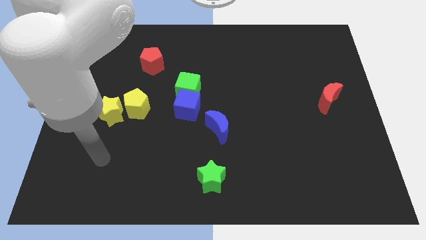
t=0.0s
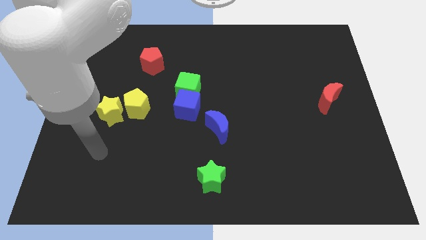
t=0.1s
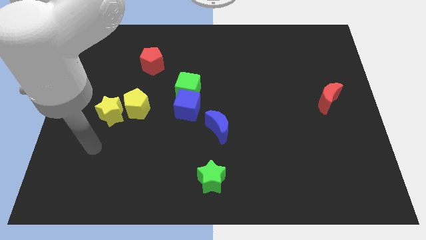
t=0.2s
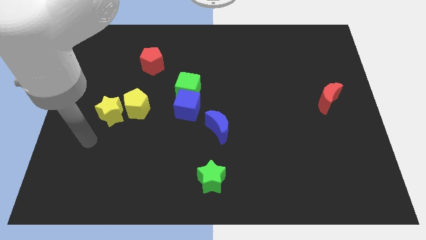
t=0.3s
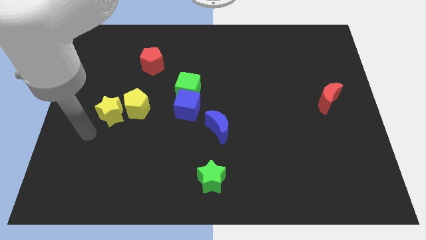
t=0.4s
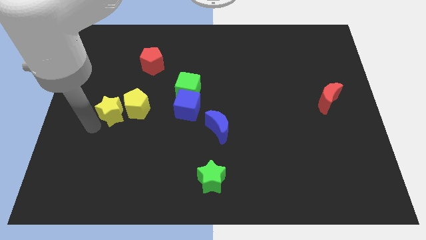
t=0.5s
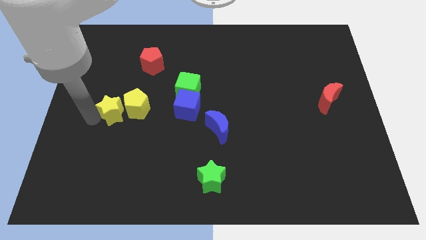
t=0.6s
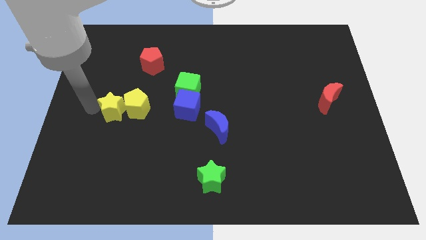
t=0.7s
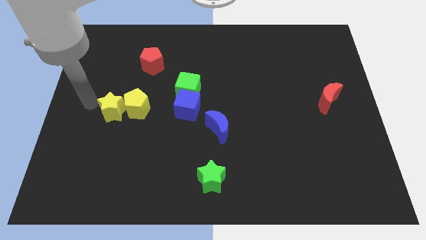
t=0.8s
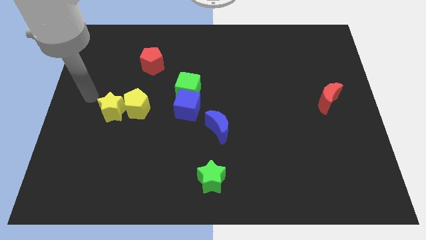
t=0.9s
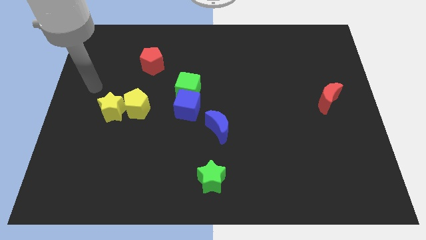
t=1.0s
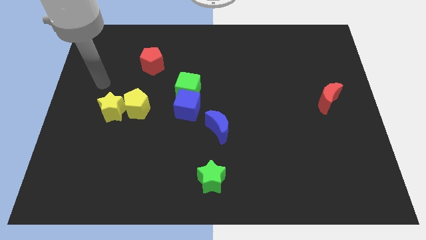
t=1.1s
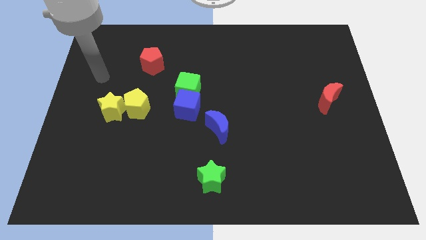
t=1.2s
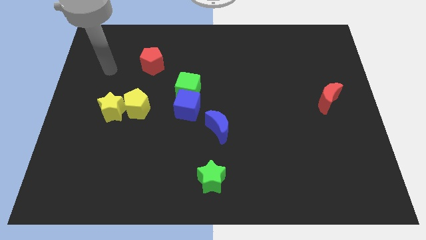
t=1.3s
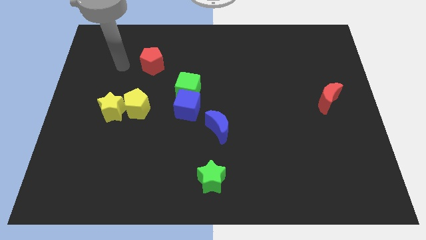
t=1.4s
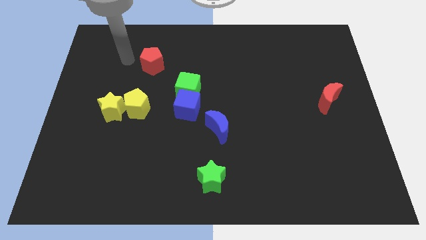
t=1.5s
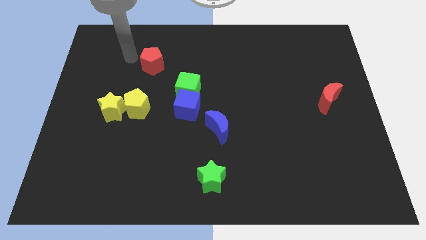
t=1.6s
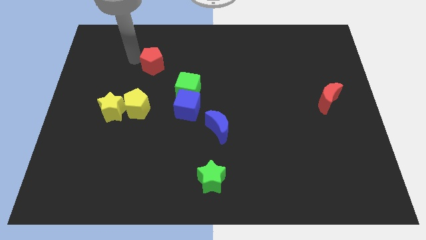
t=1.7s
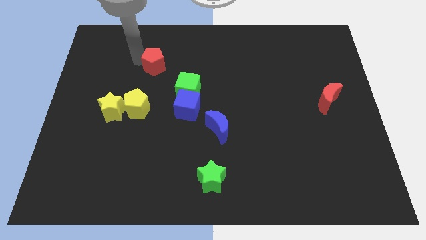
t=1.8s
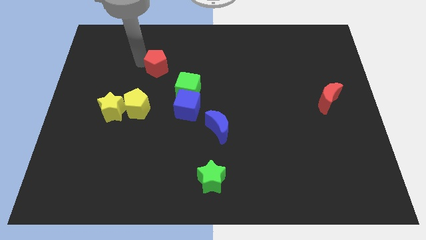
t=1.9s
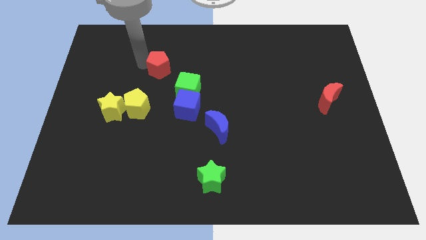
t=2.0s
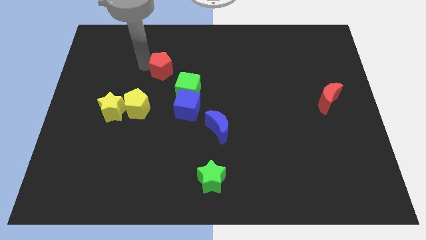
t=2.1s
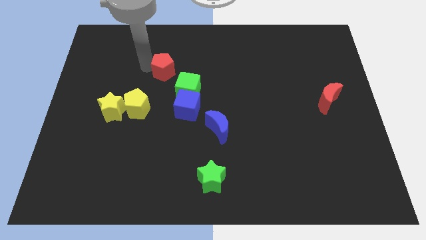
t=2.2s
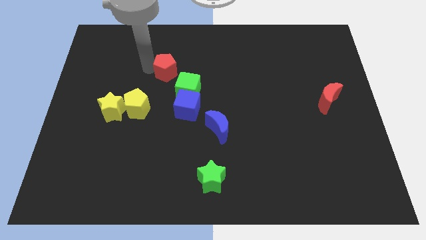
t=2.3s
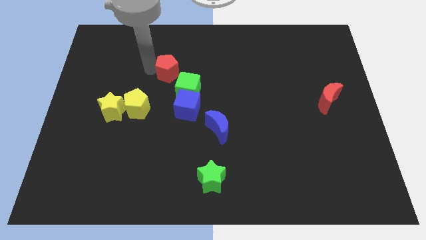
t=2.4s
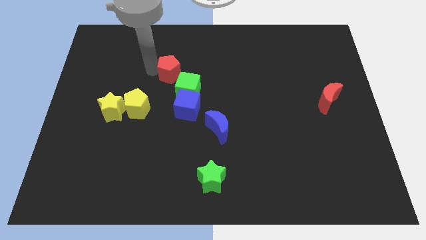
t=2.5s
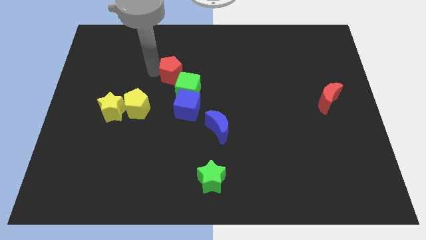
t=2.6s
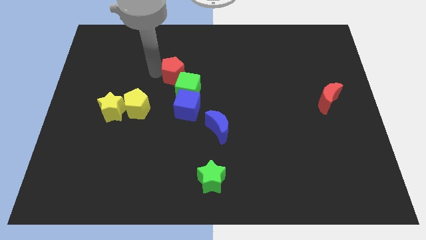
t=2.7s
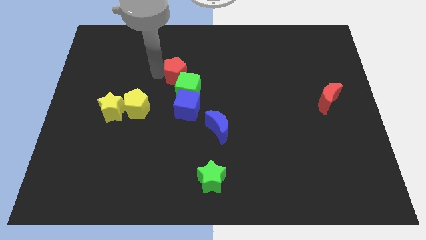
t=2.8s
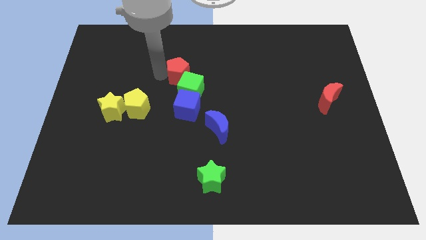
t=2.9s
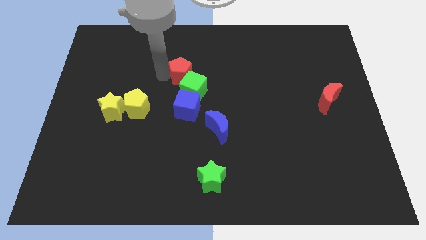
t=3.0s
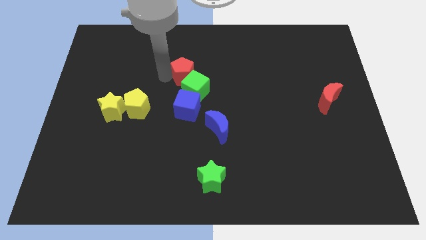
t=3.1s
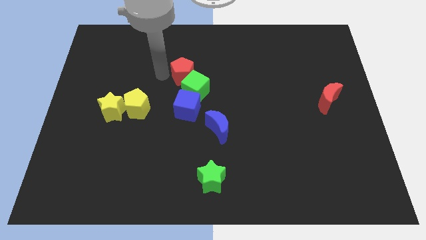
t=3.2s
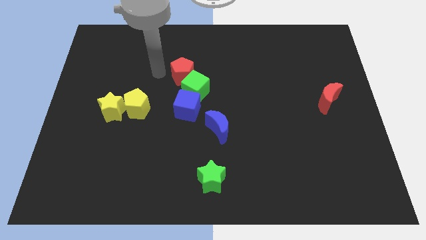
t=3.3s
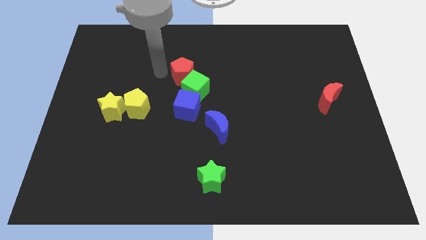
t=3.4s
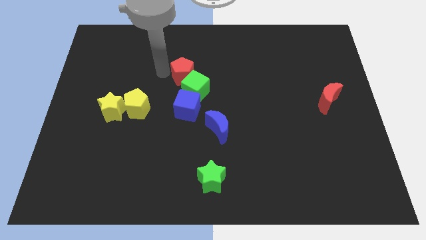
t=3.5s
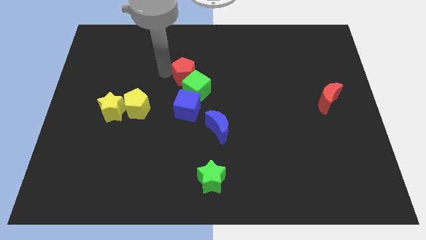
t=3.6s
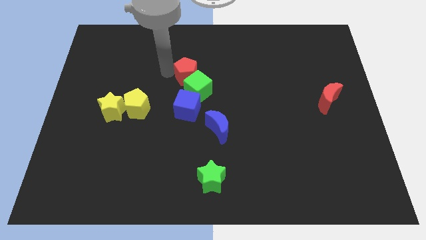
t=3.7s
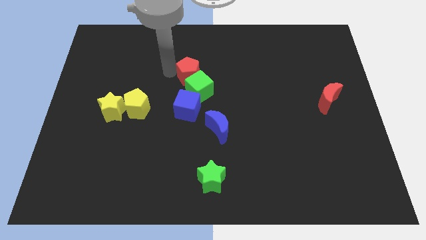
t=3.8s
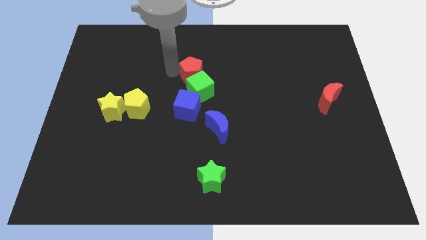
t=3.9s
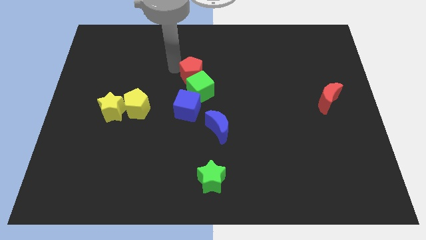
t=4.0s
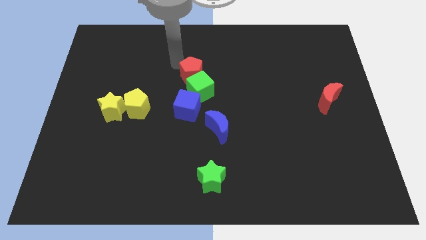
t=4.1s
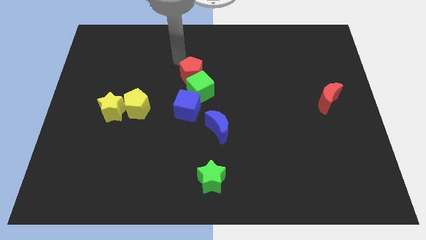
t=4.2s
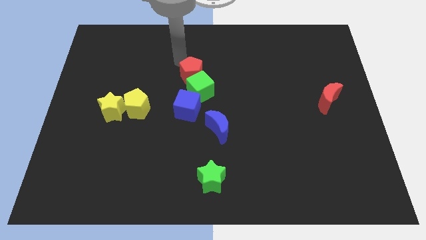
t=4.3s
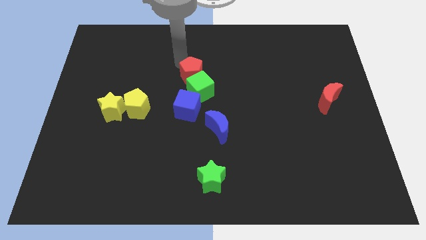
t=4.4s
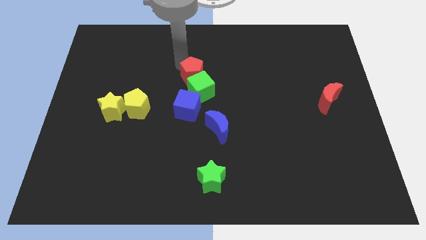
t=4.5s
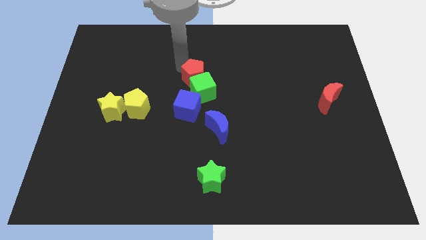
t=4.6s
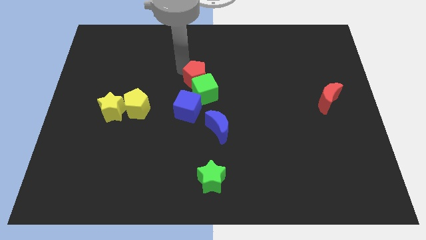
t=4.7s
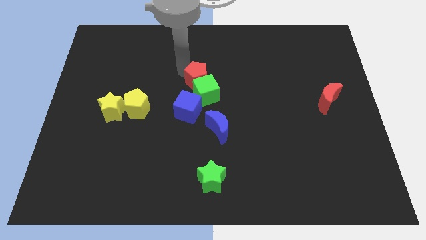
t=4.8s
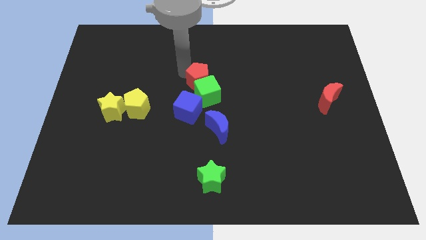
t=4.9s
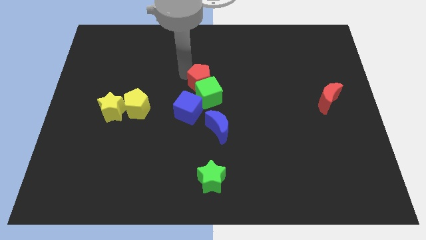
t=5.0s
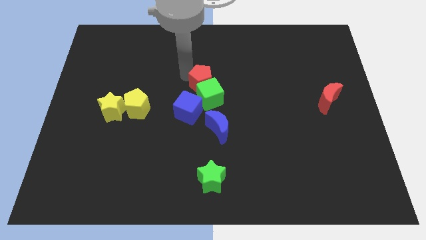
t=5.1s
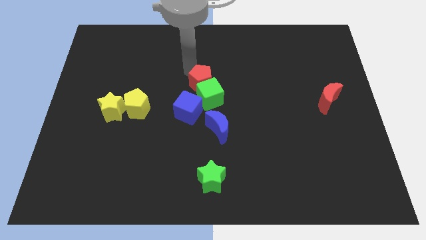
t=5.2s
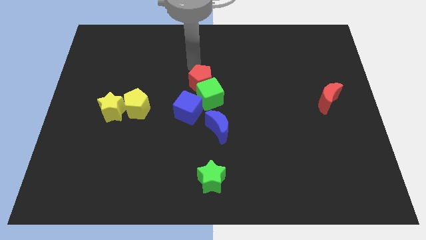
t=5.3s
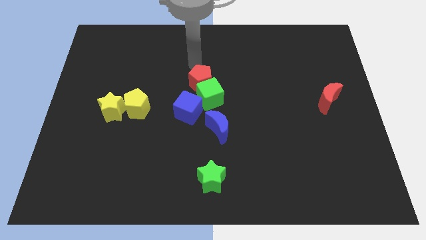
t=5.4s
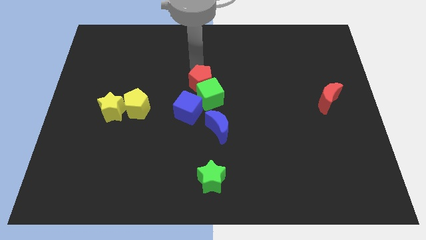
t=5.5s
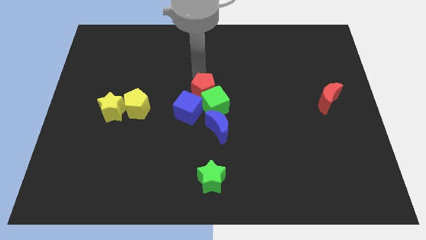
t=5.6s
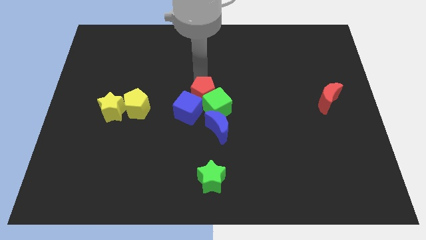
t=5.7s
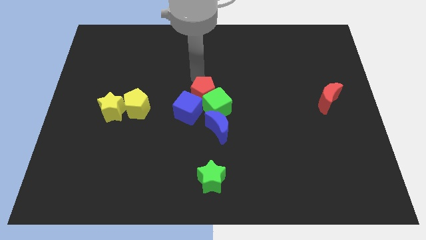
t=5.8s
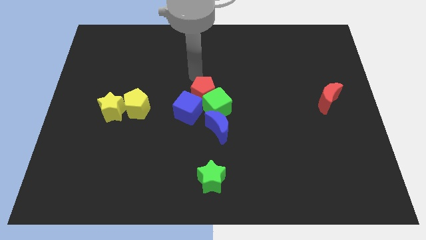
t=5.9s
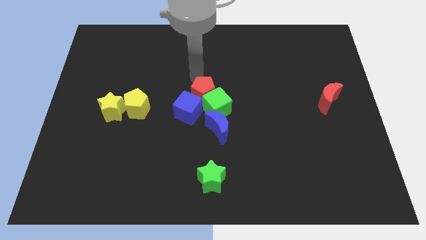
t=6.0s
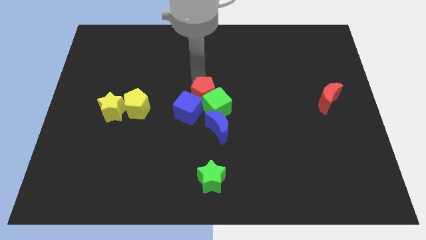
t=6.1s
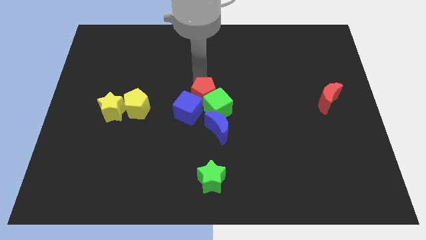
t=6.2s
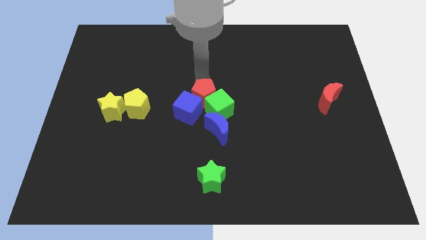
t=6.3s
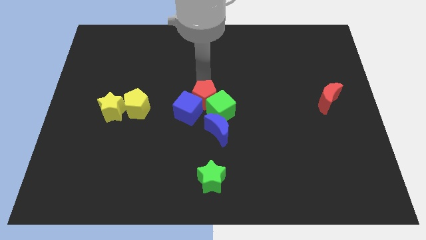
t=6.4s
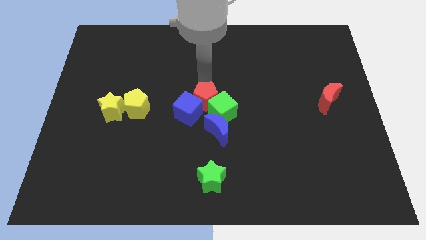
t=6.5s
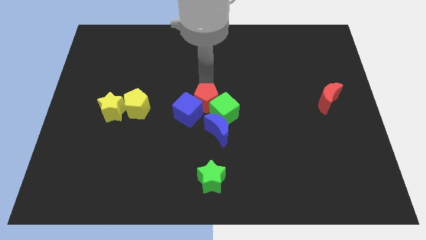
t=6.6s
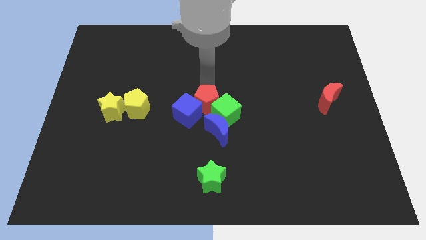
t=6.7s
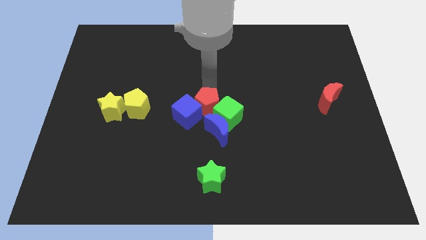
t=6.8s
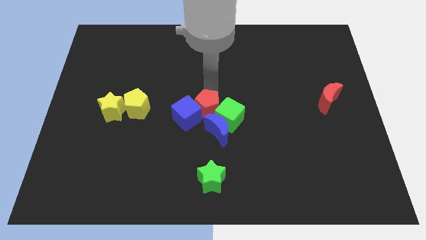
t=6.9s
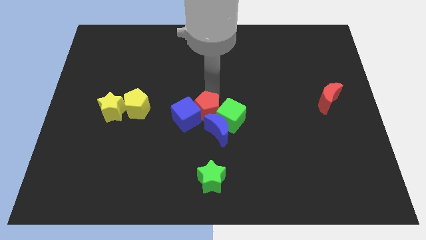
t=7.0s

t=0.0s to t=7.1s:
put the red pentagon close to the blue moon

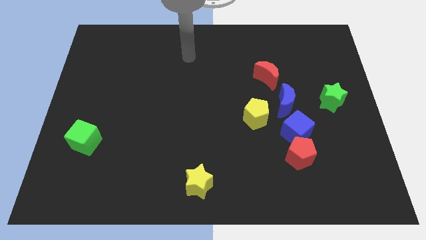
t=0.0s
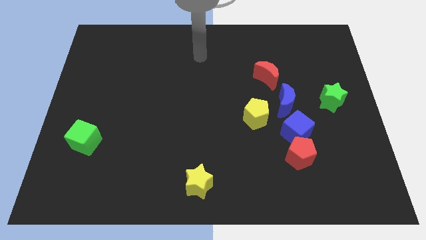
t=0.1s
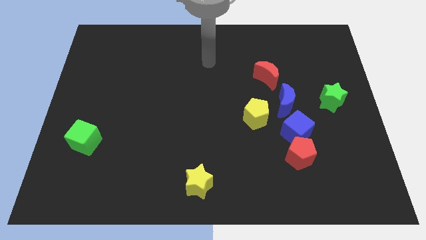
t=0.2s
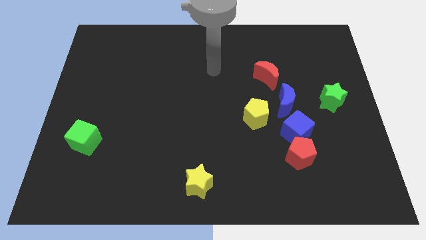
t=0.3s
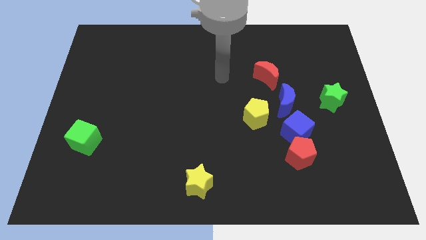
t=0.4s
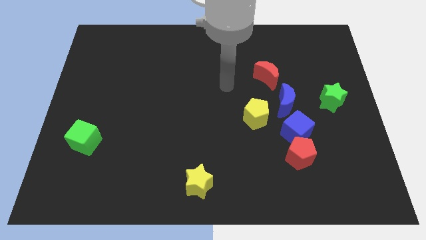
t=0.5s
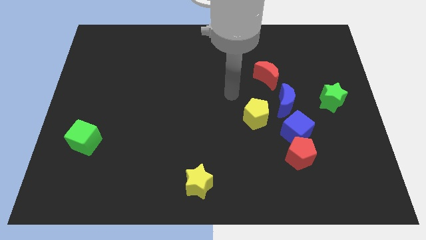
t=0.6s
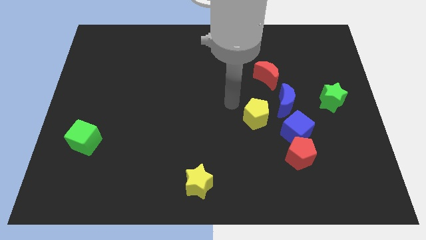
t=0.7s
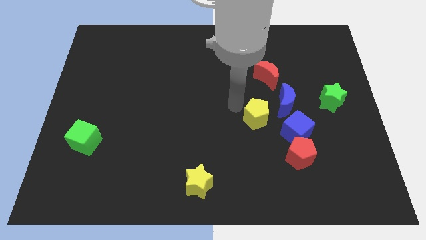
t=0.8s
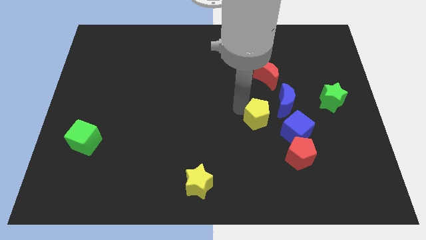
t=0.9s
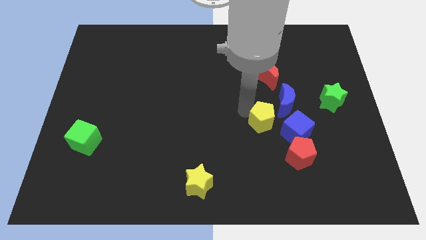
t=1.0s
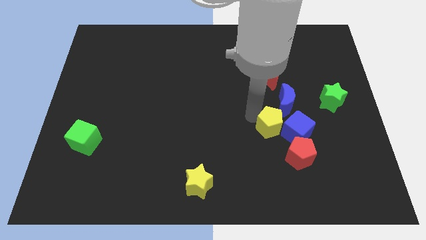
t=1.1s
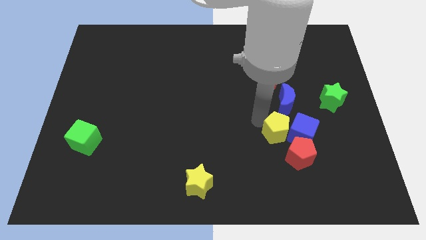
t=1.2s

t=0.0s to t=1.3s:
push the yellow pentagon close to the blue cube
